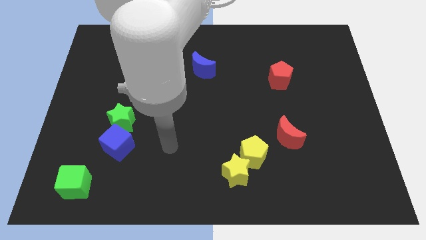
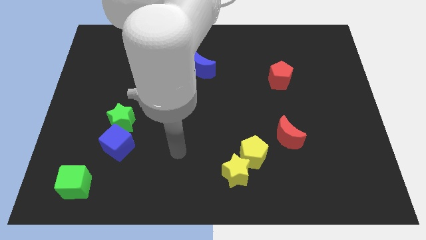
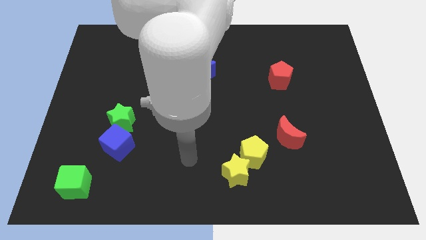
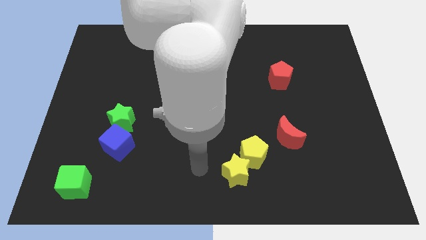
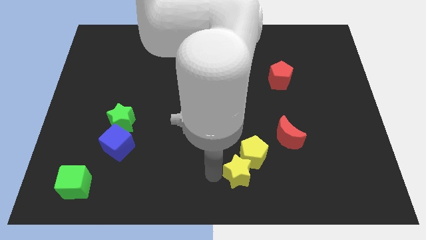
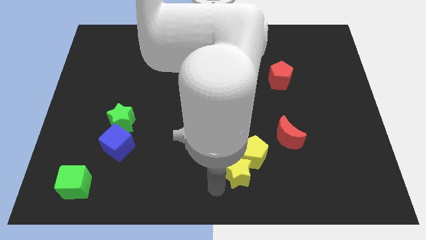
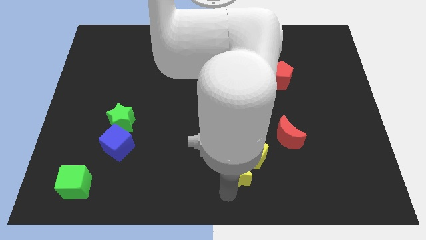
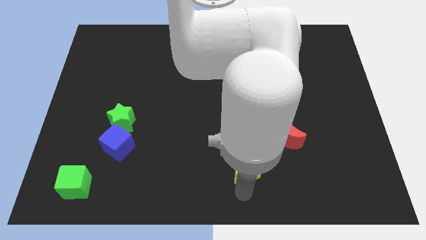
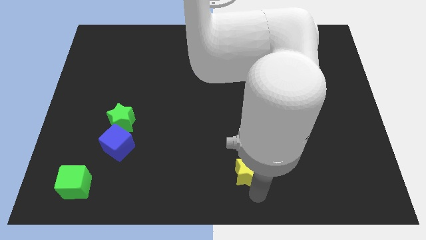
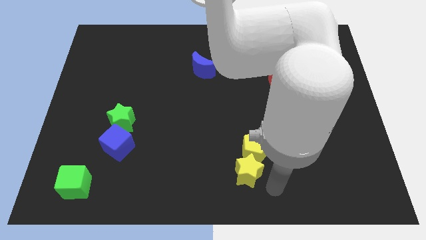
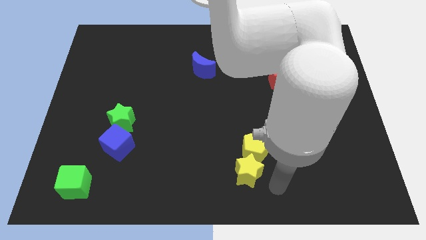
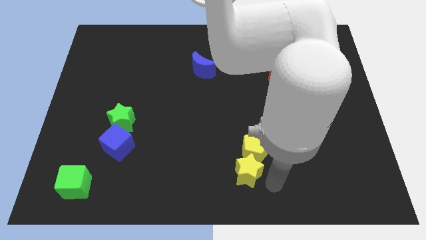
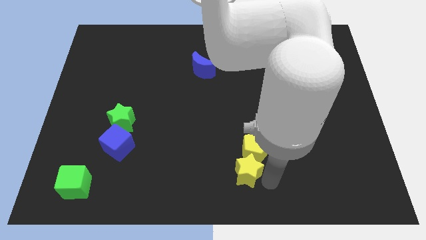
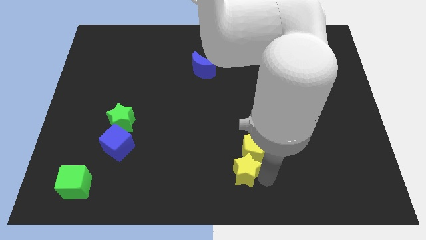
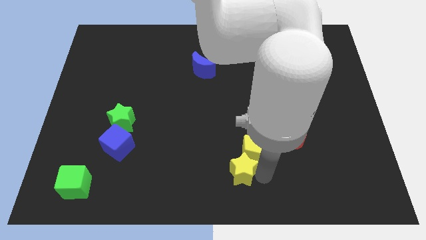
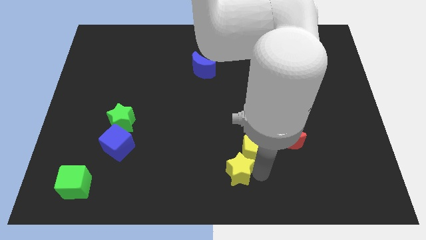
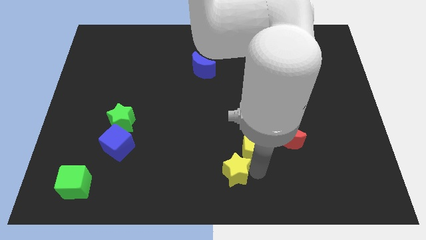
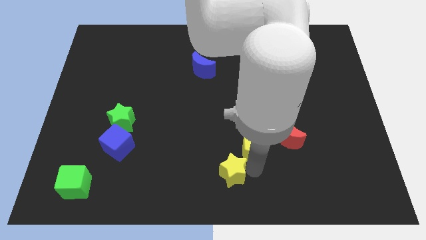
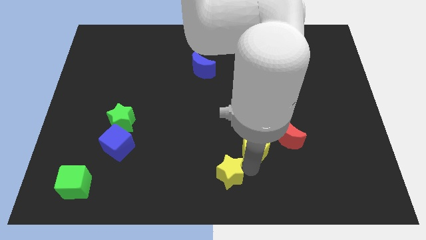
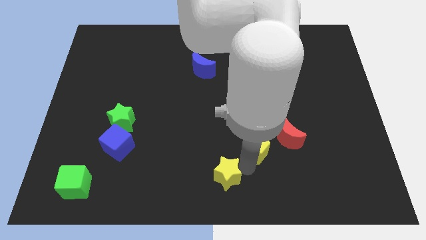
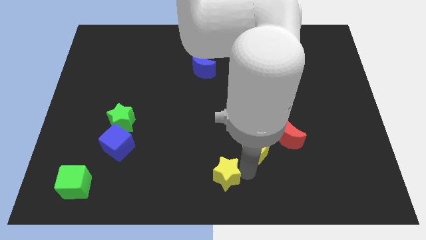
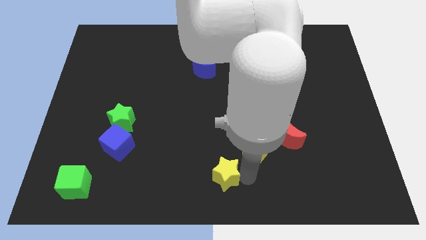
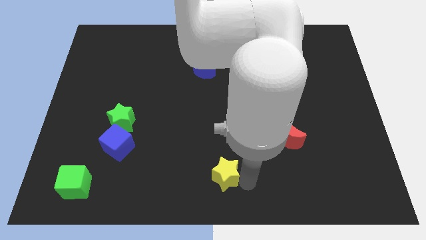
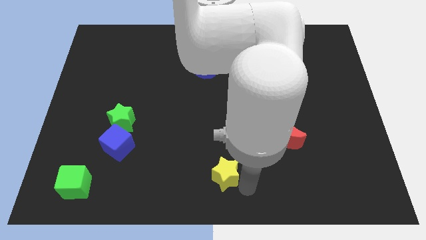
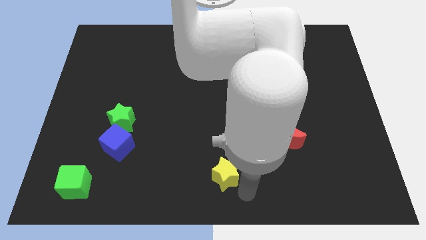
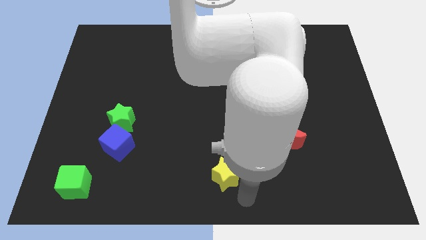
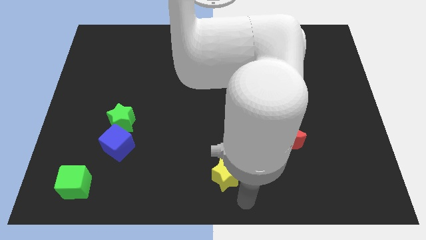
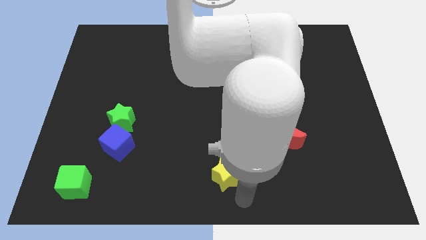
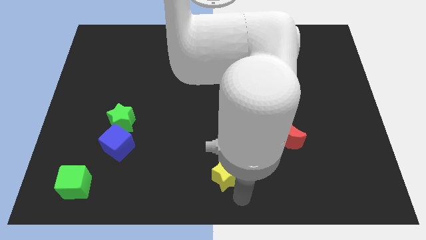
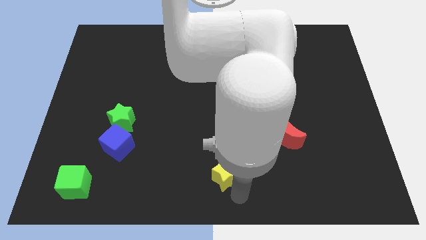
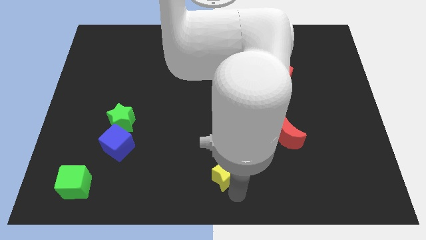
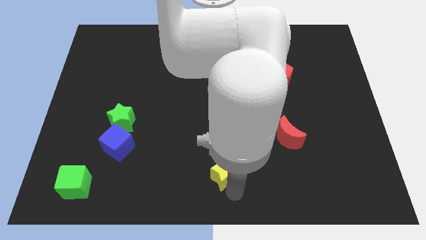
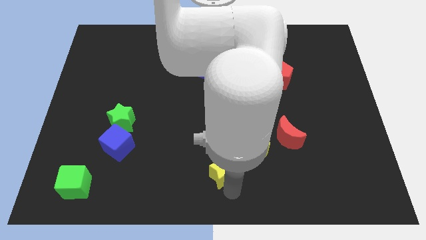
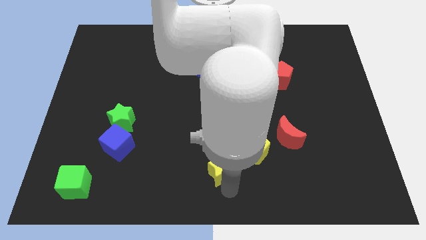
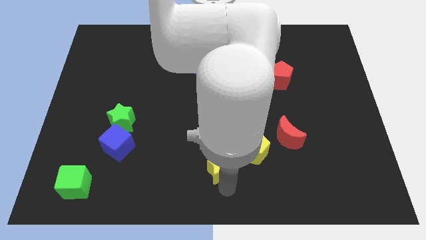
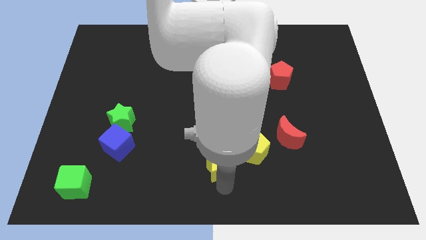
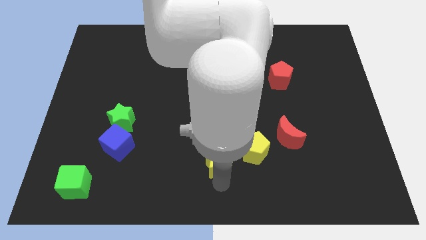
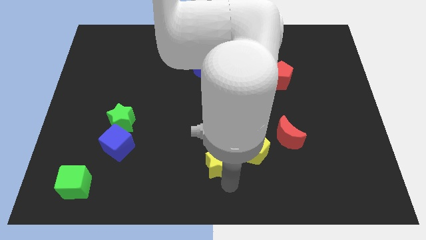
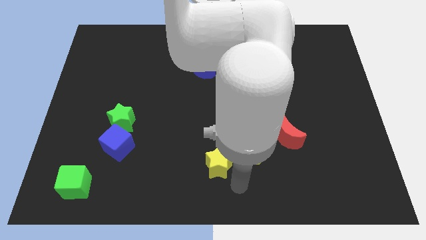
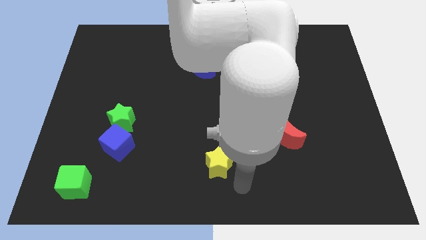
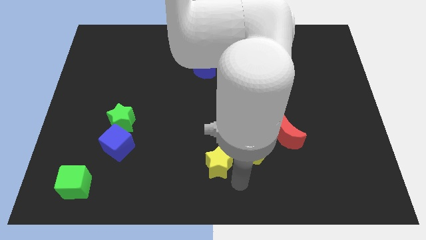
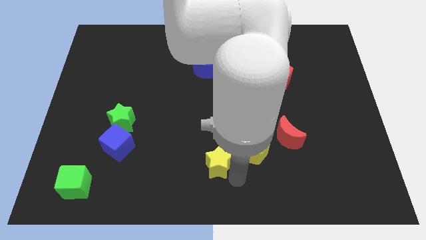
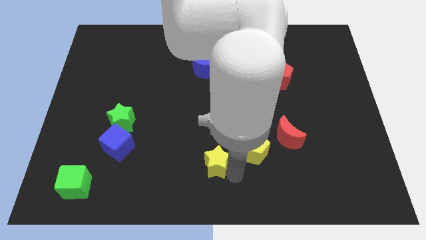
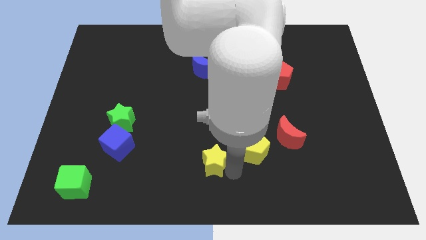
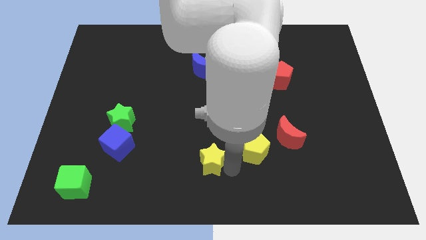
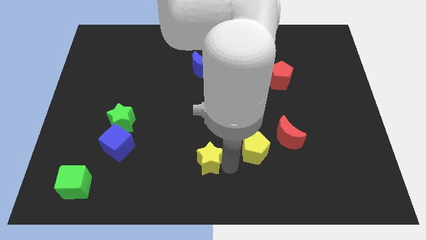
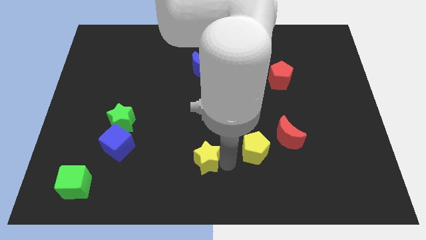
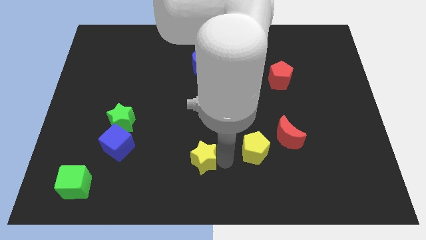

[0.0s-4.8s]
slide the yellow star slightly diagonally up and to the left

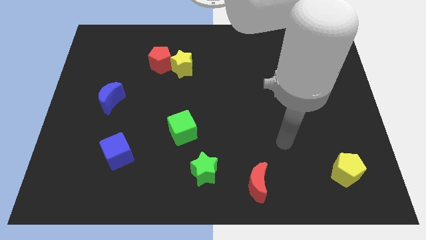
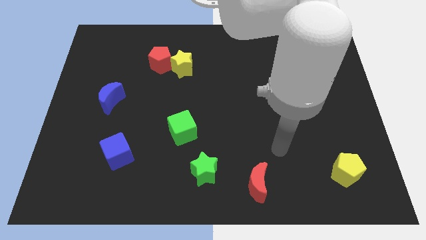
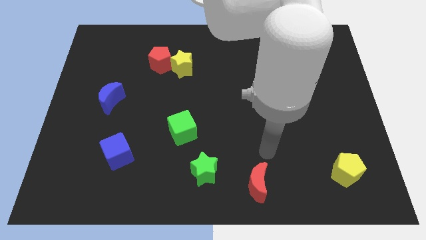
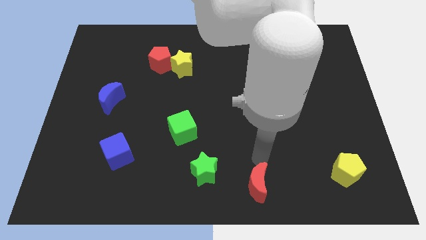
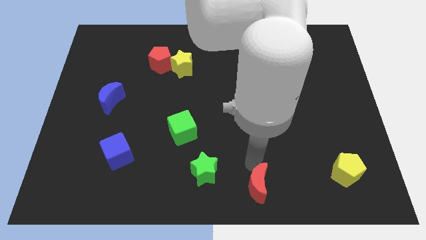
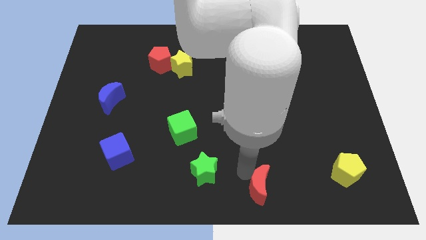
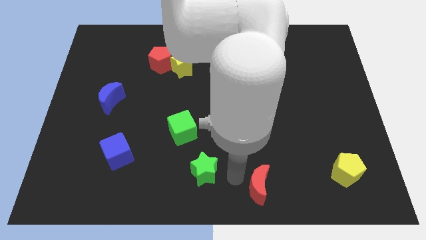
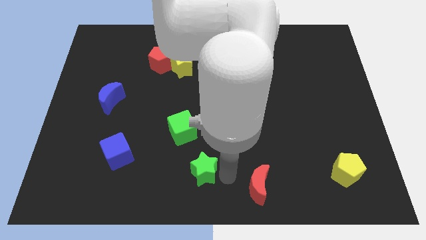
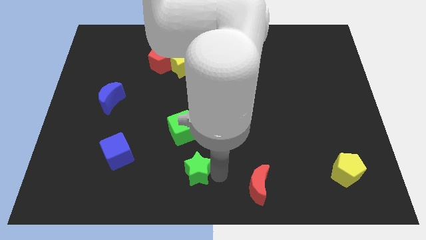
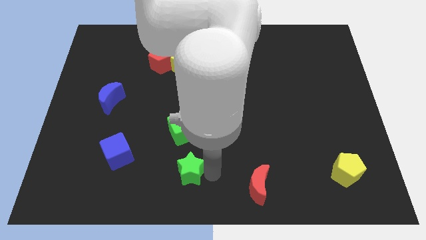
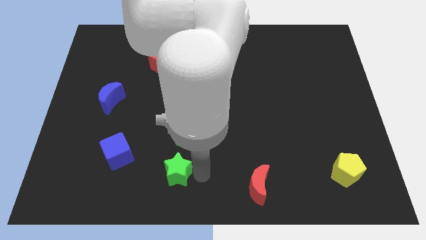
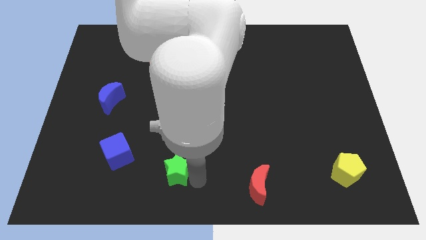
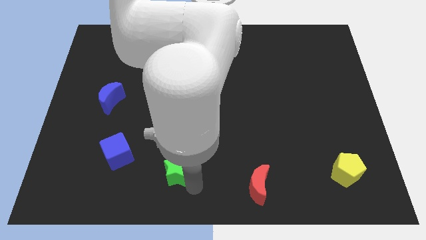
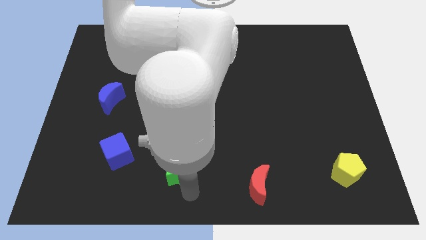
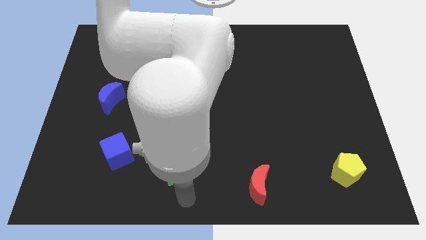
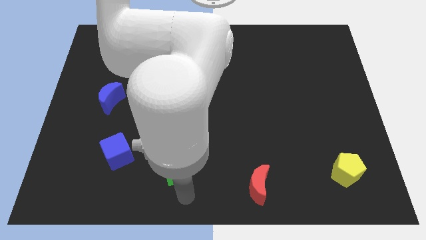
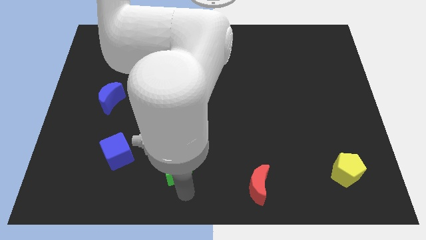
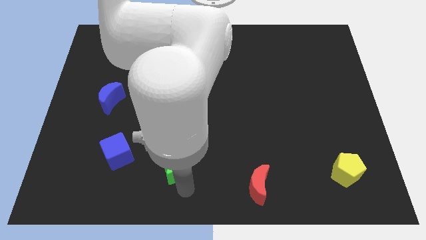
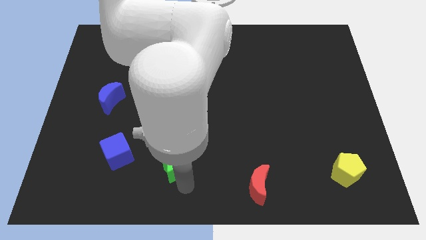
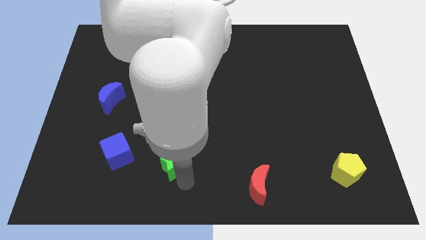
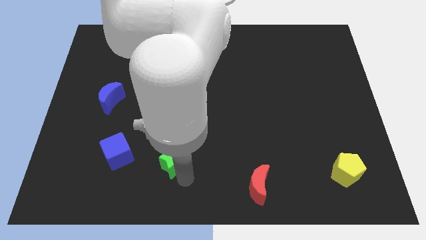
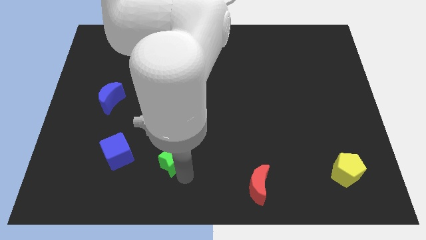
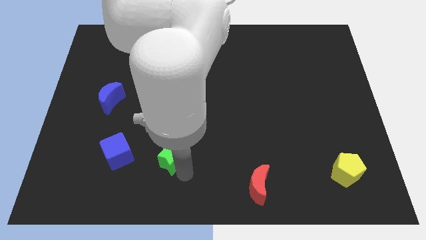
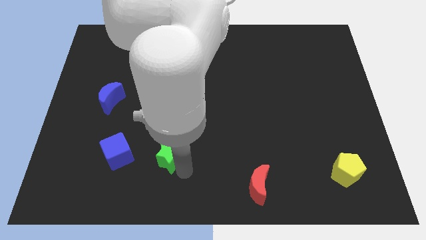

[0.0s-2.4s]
slightly push the green star upwards and then to the left

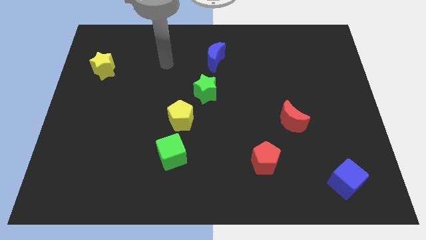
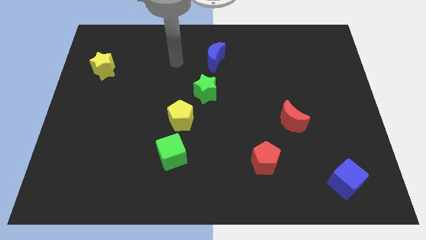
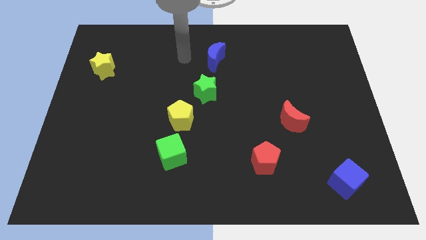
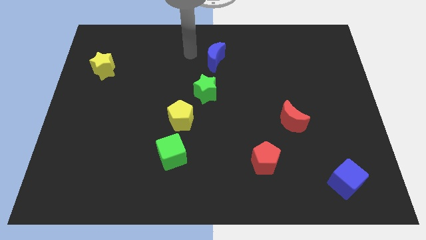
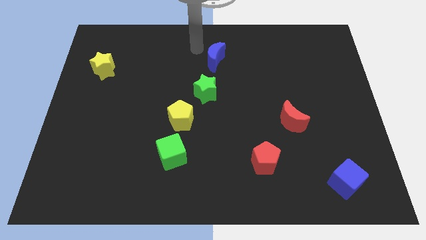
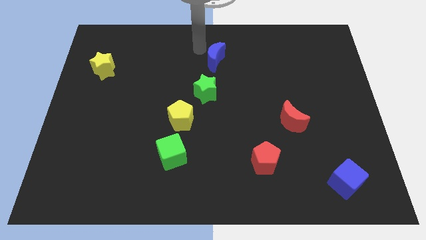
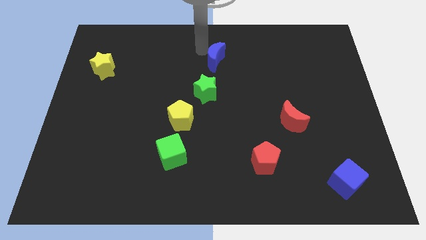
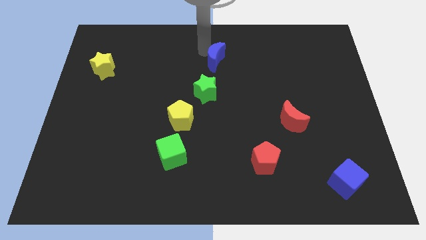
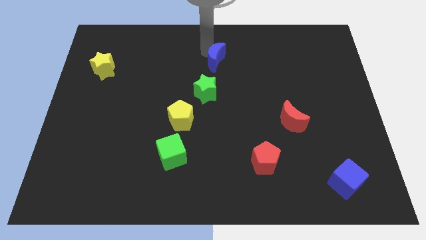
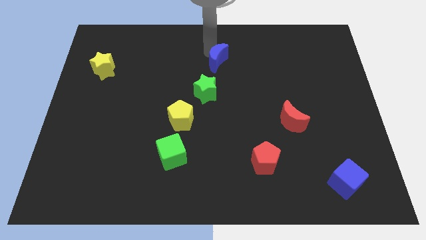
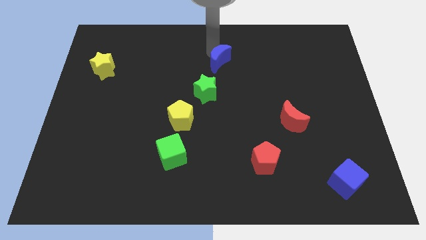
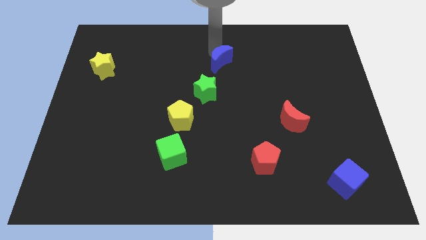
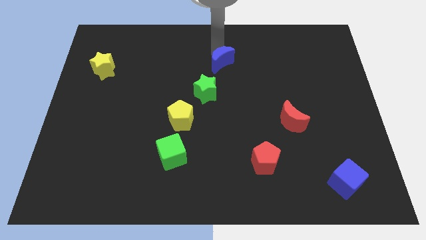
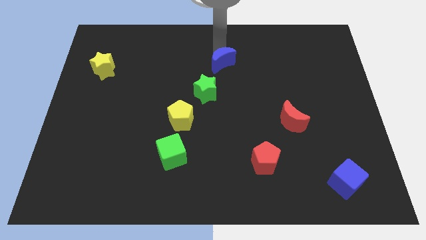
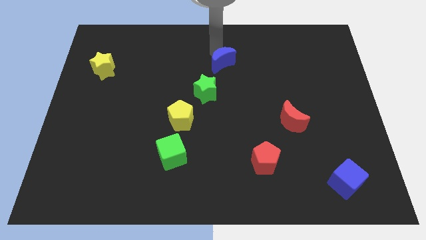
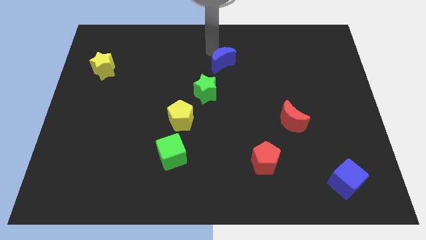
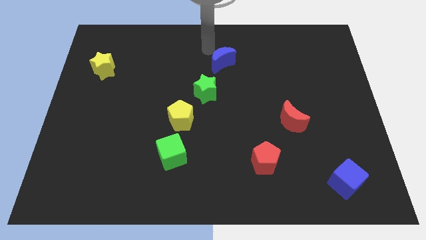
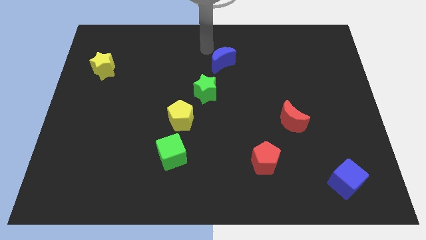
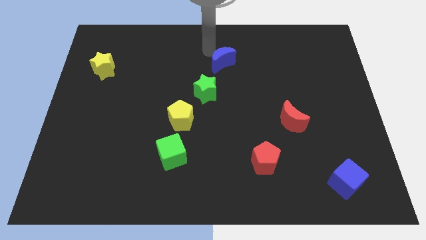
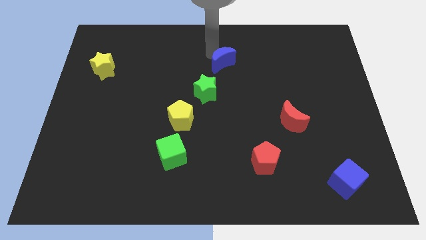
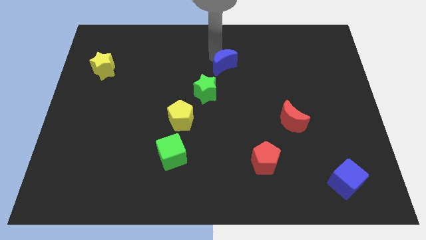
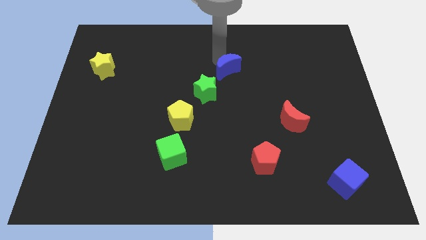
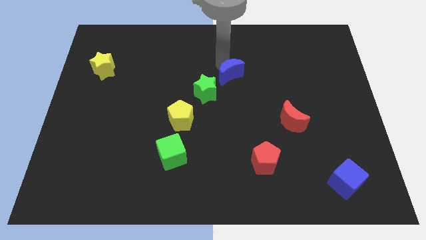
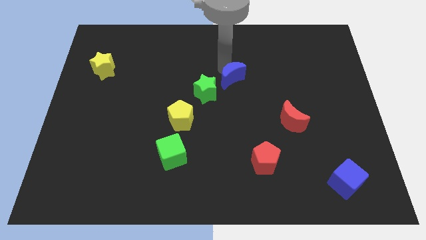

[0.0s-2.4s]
push the blue moon downwards and to the right diagonally a bit
